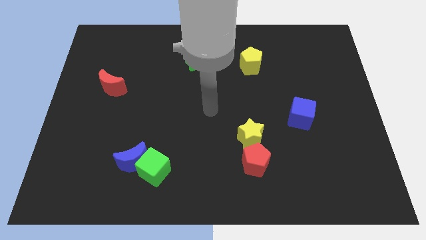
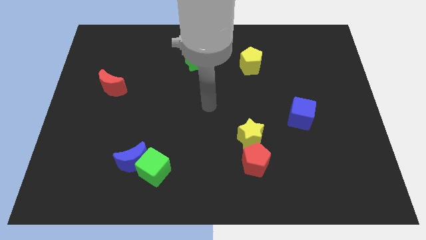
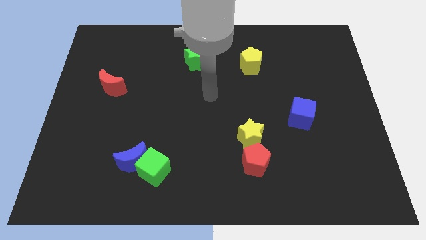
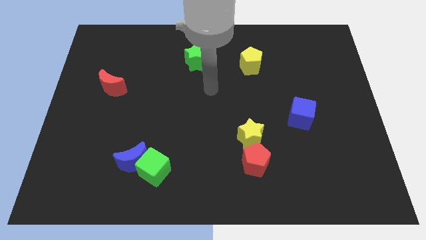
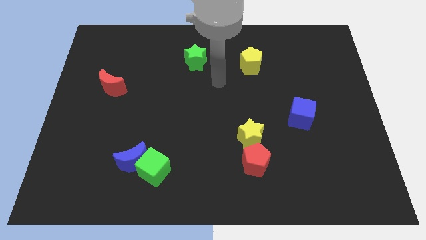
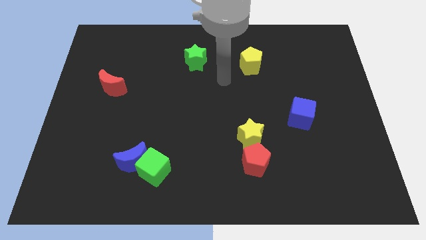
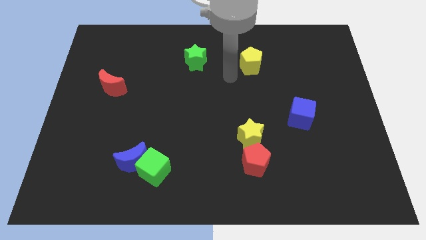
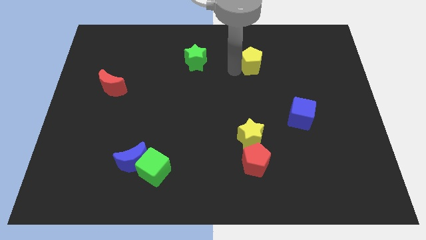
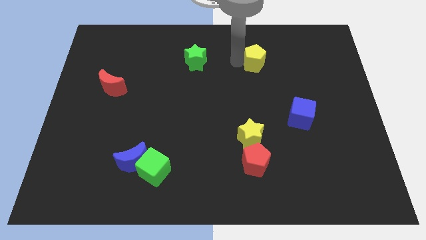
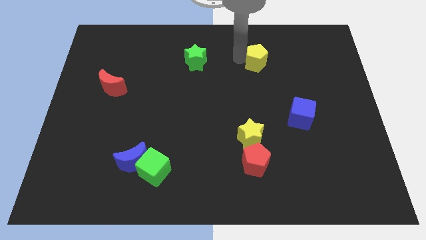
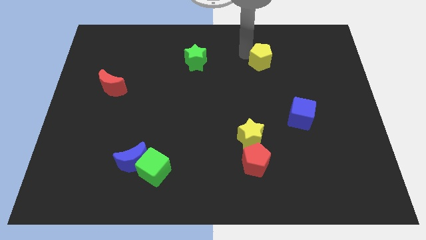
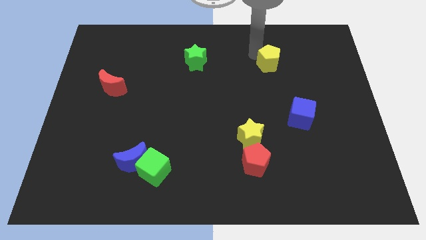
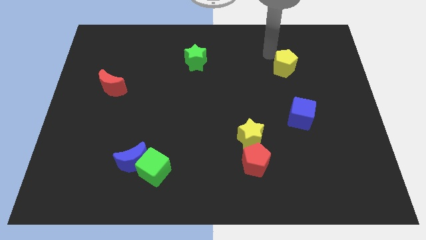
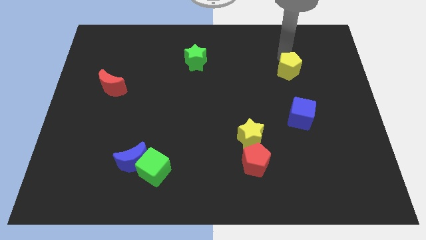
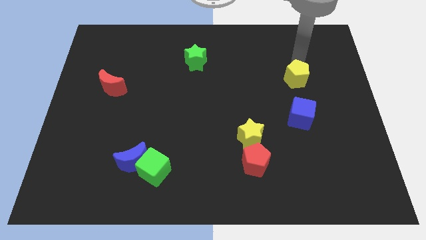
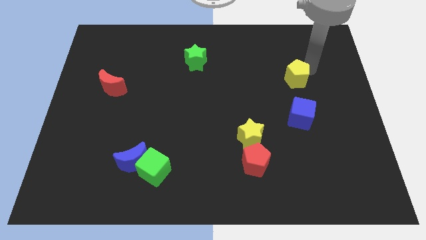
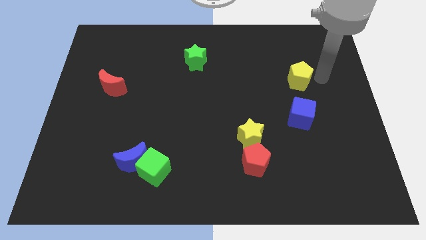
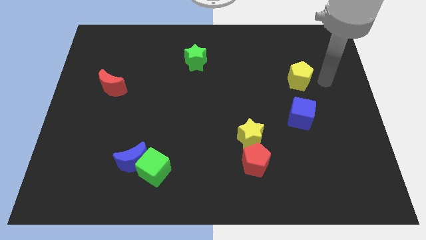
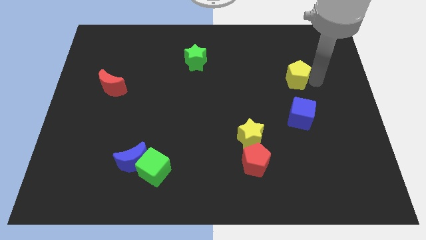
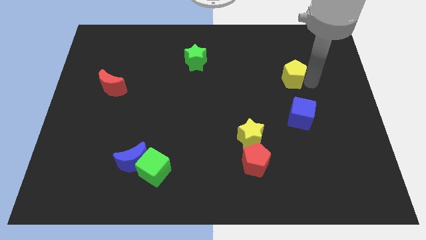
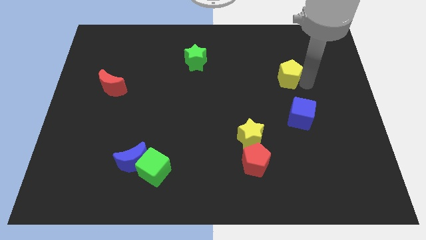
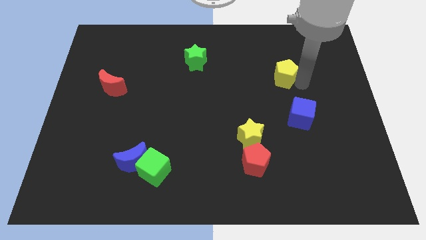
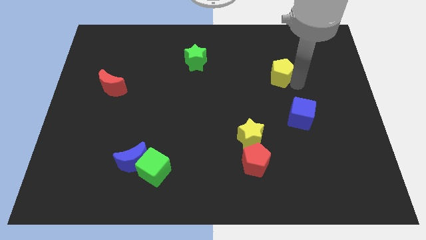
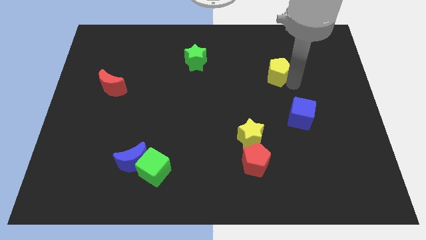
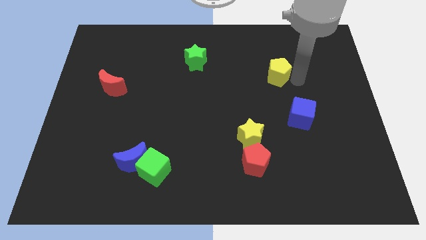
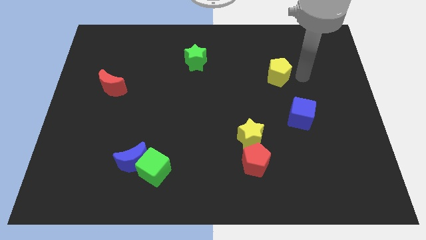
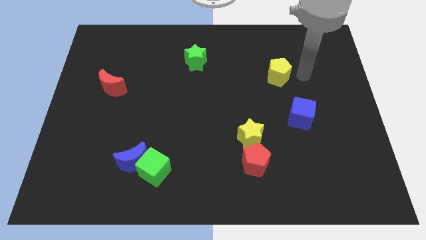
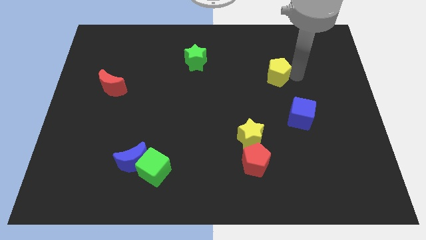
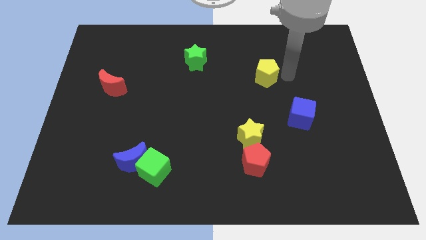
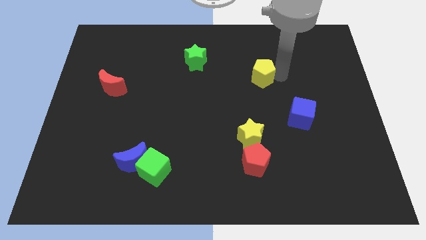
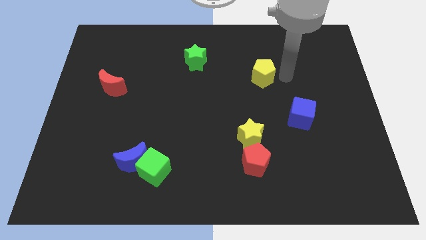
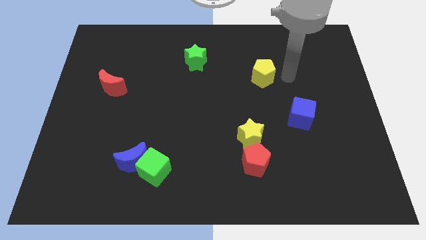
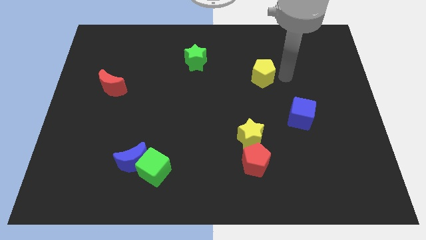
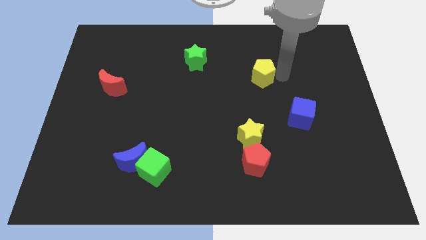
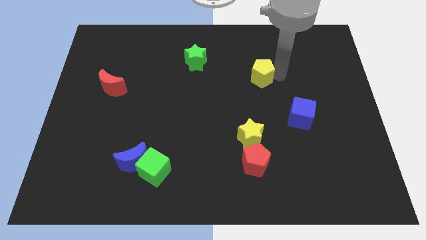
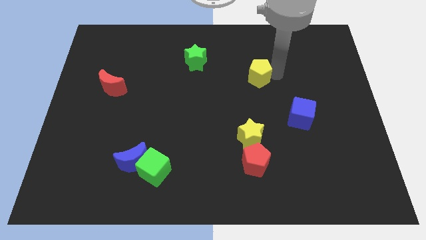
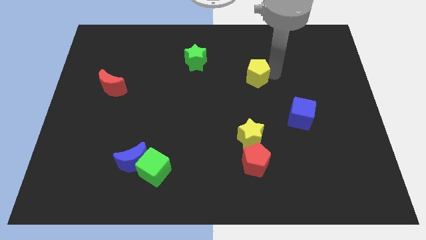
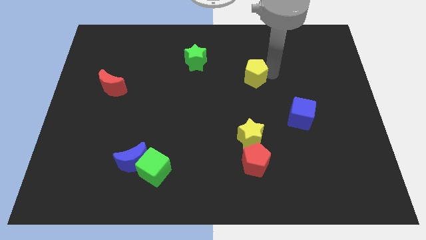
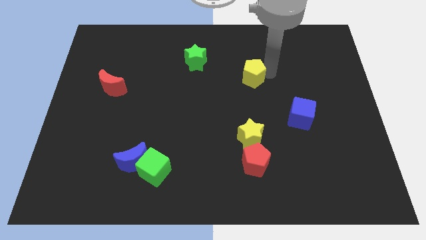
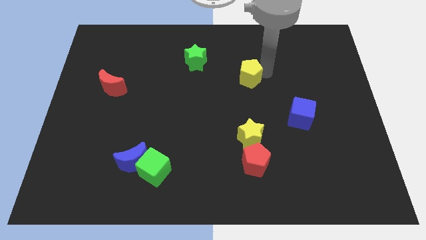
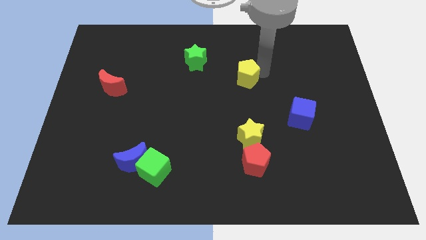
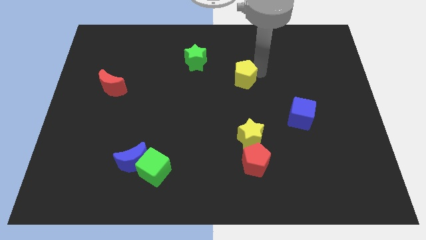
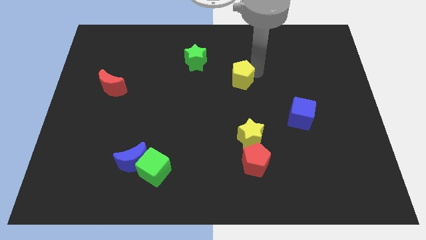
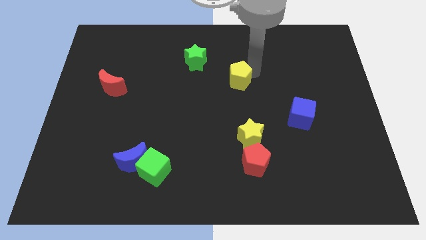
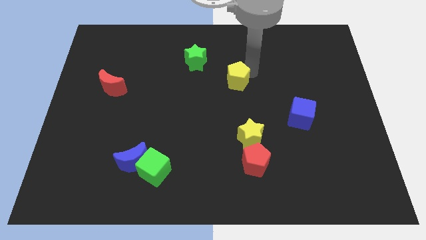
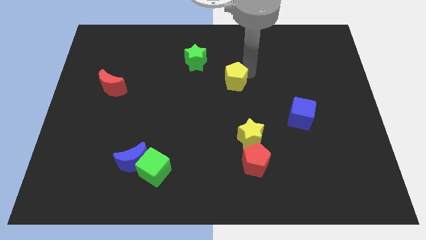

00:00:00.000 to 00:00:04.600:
move the yellow pentagon down and to the left somewhat

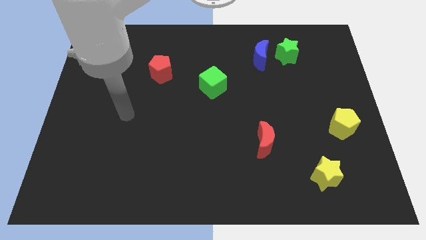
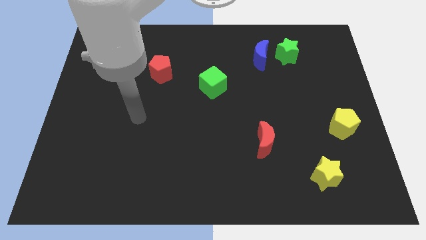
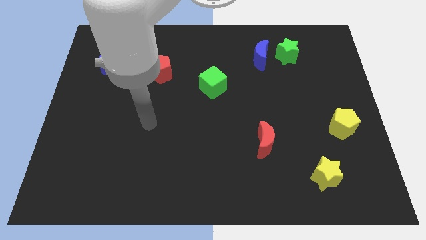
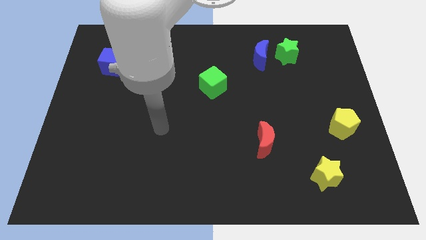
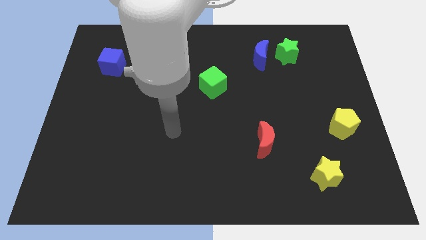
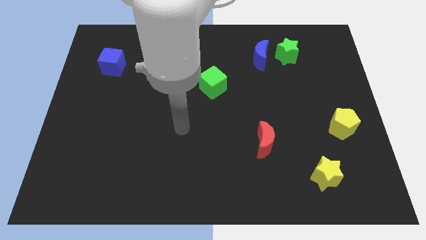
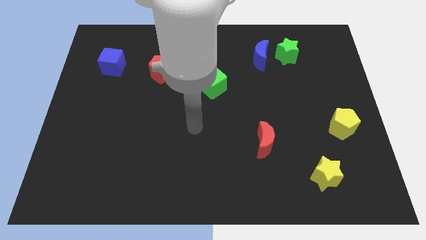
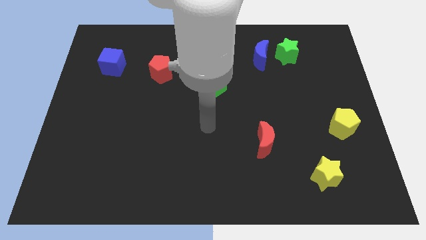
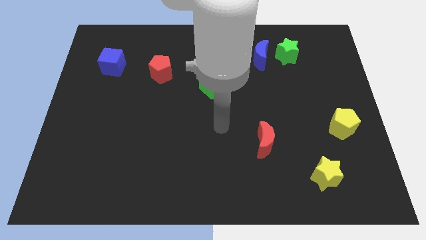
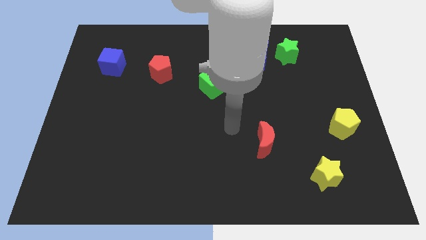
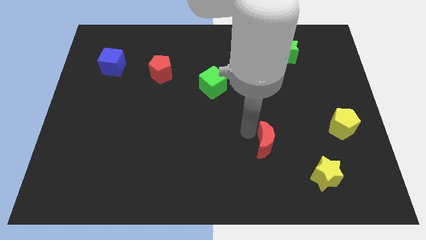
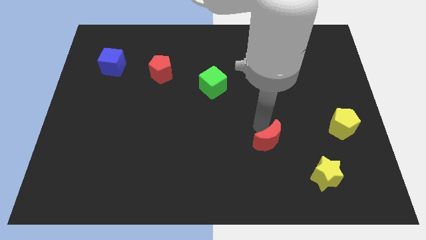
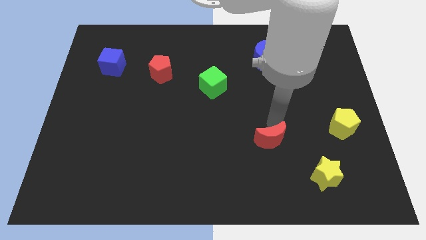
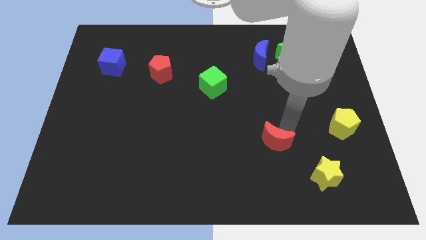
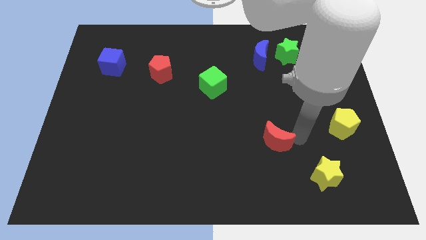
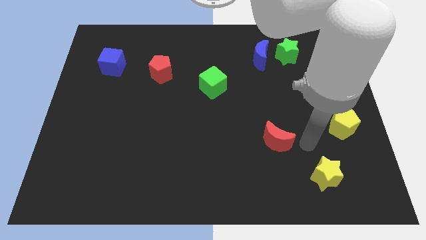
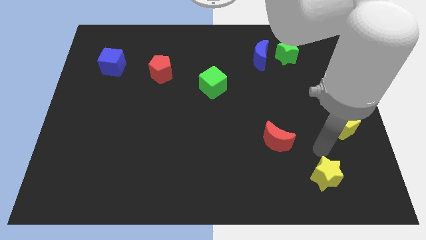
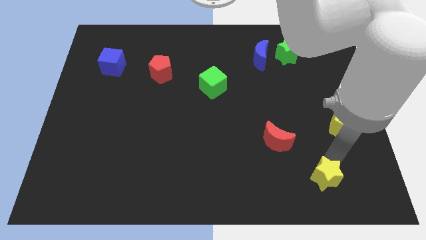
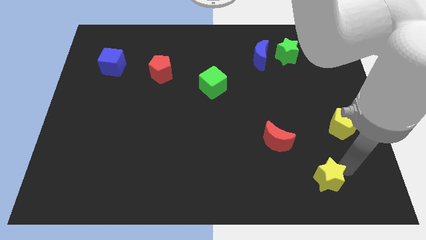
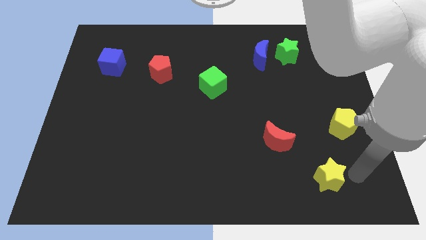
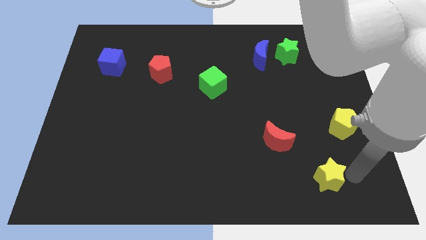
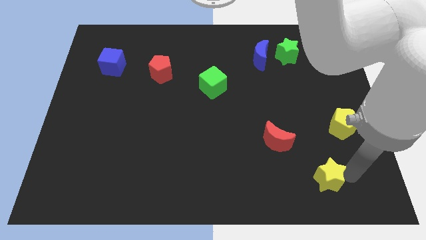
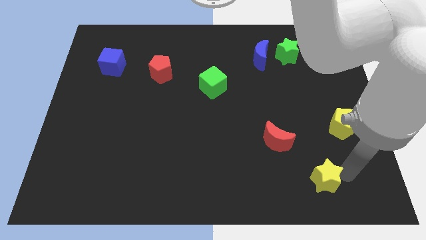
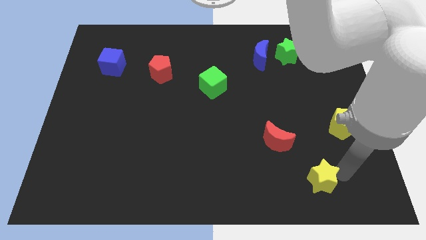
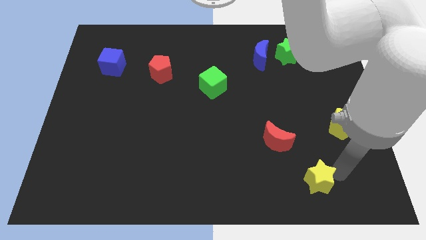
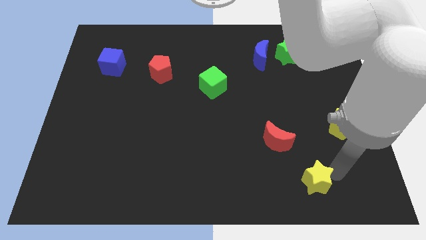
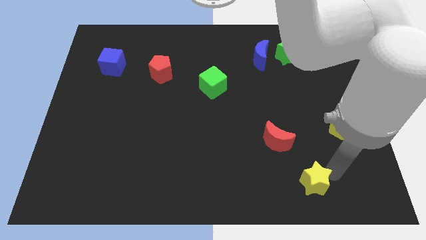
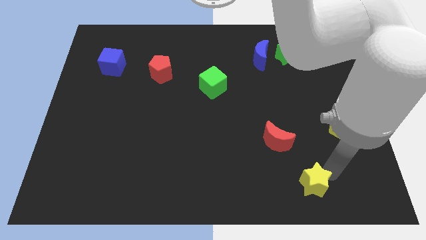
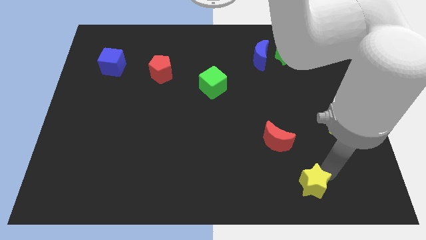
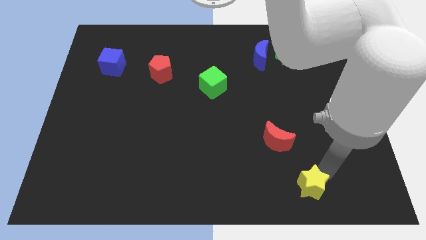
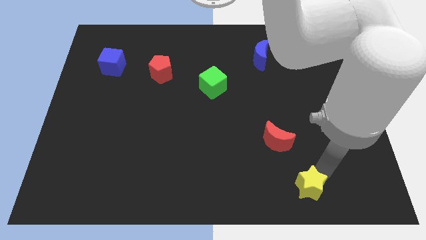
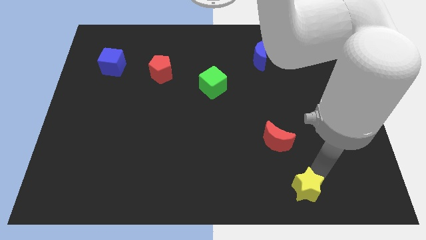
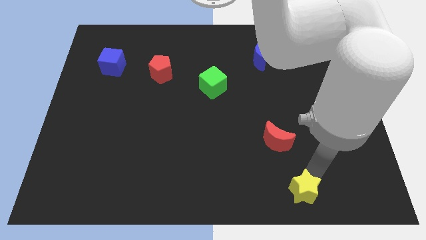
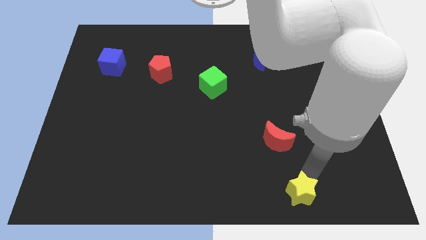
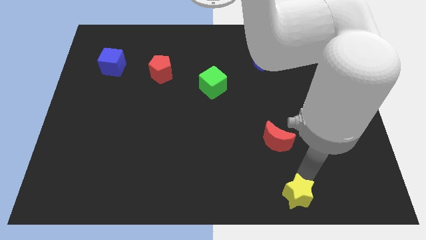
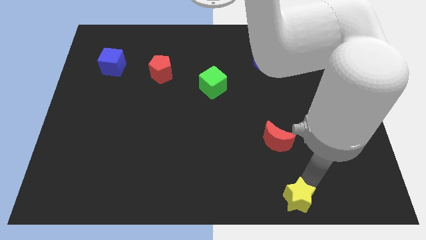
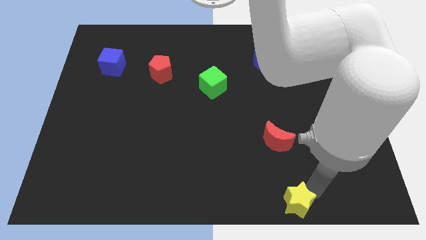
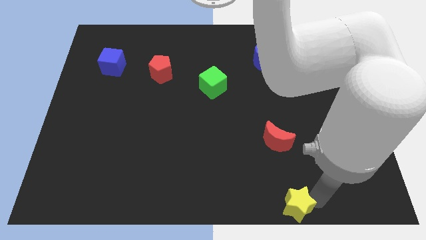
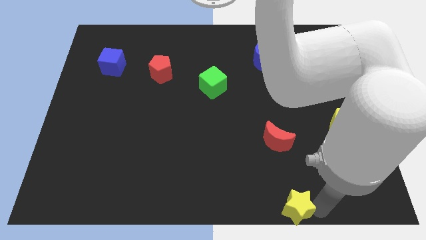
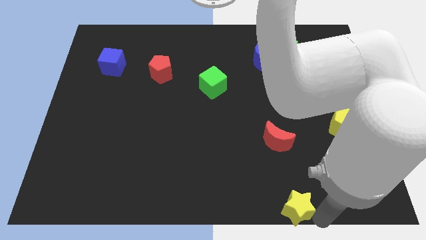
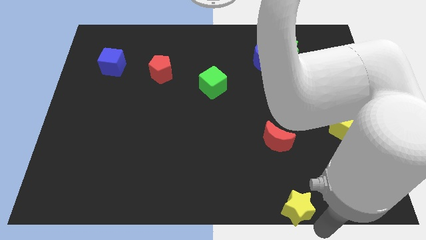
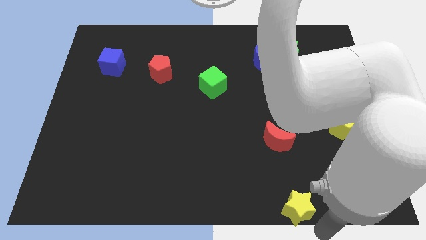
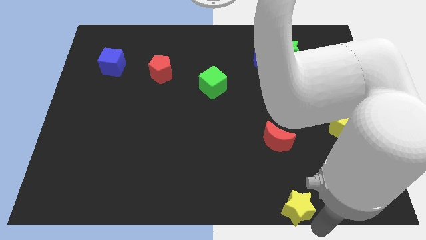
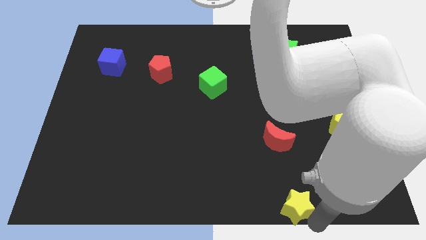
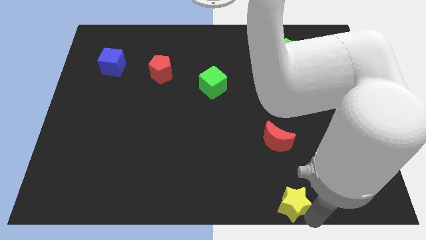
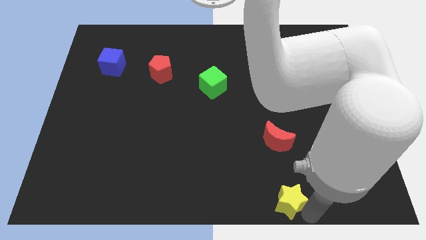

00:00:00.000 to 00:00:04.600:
slightly push the yellow star left
